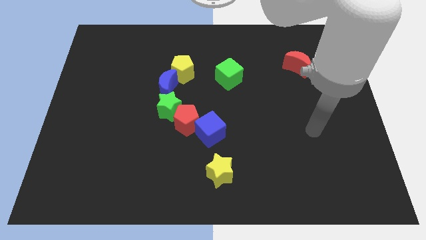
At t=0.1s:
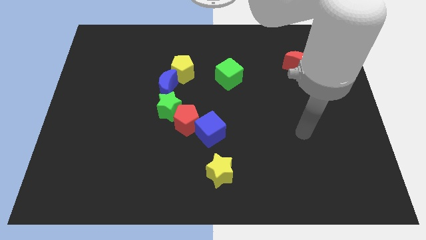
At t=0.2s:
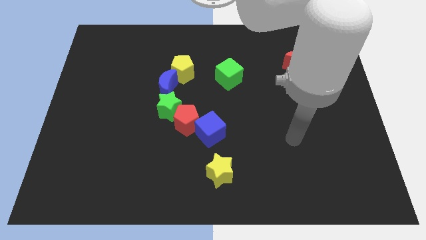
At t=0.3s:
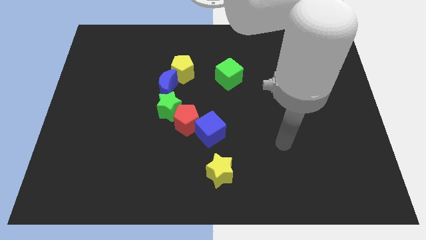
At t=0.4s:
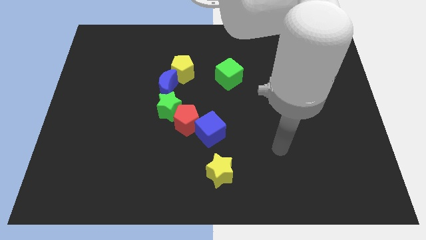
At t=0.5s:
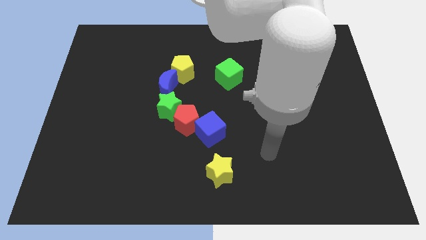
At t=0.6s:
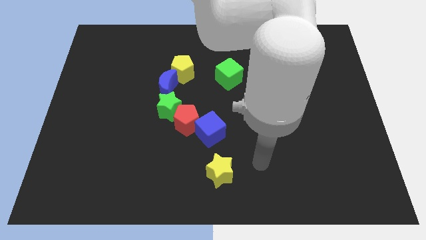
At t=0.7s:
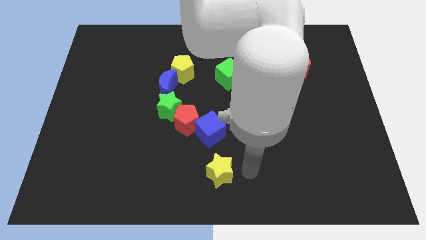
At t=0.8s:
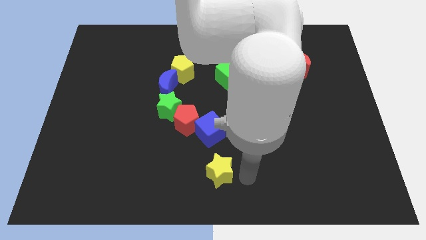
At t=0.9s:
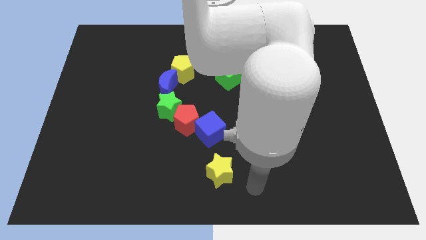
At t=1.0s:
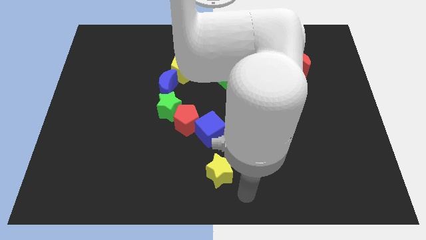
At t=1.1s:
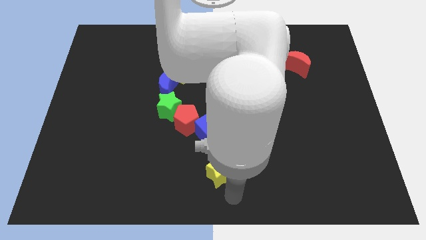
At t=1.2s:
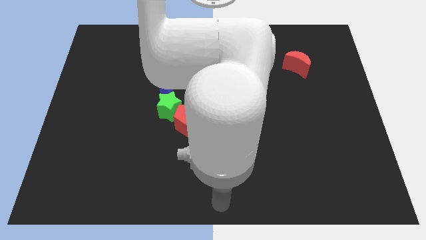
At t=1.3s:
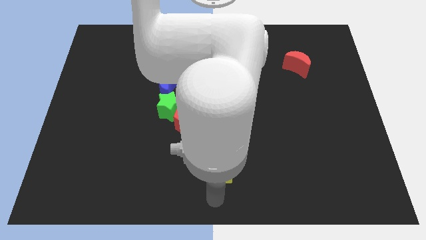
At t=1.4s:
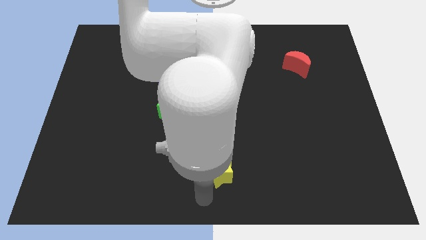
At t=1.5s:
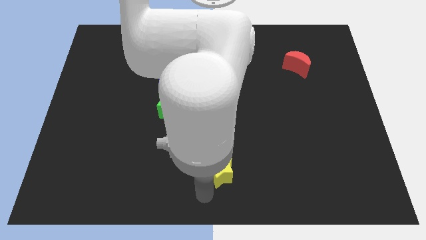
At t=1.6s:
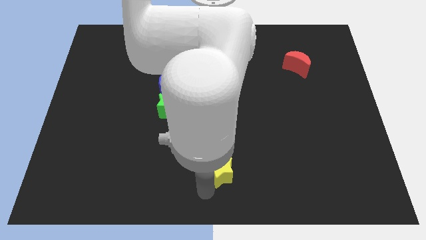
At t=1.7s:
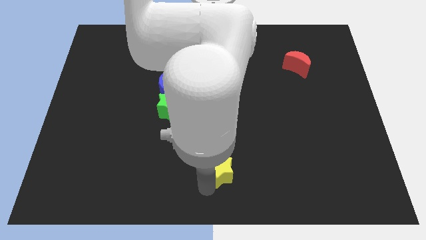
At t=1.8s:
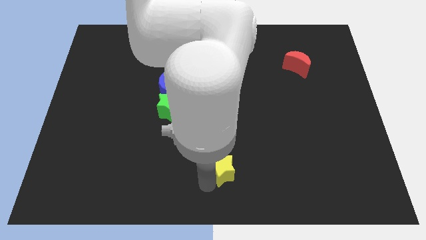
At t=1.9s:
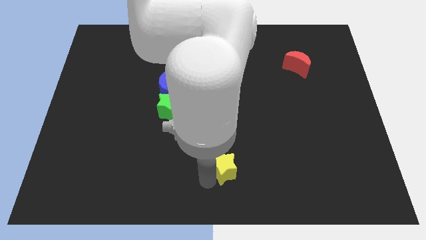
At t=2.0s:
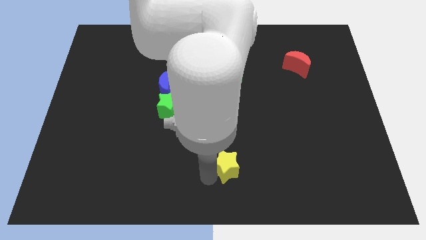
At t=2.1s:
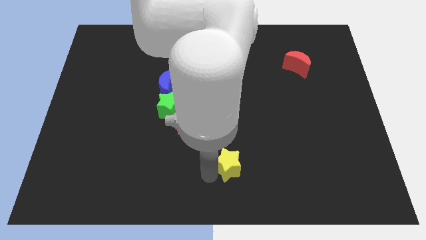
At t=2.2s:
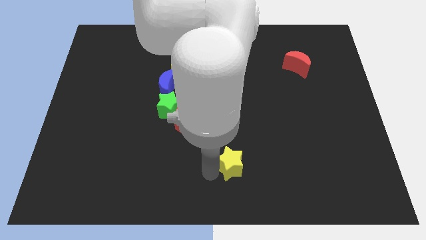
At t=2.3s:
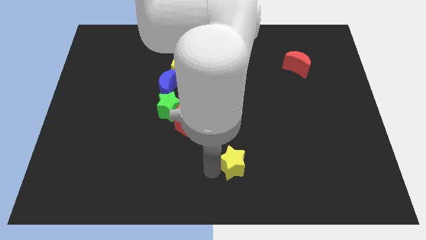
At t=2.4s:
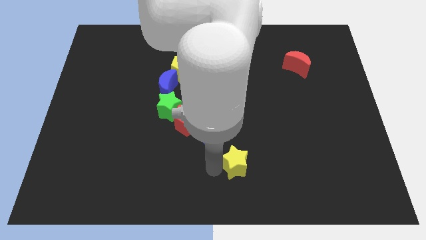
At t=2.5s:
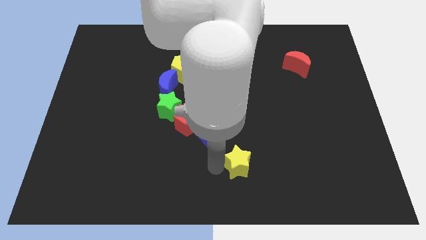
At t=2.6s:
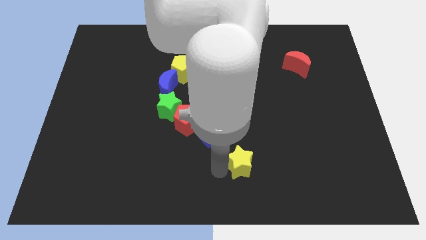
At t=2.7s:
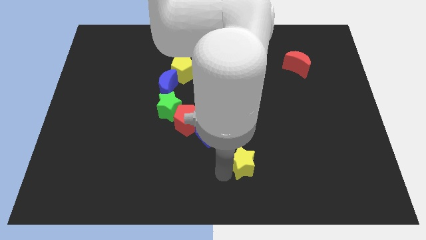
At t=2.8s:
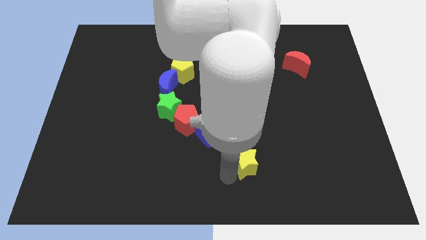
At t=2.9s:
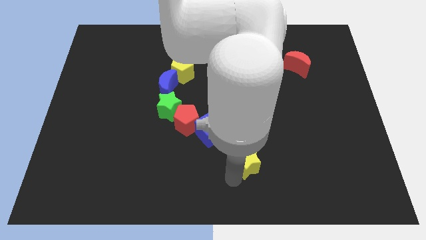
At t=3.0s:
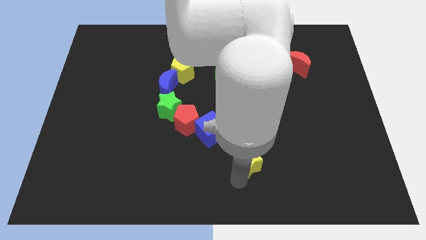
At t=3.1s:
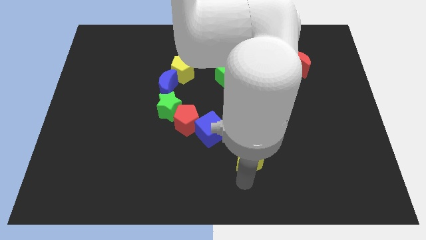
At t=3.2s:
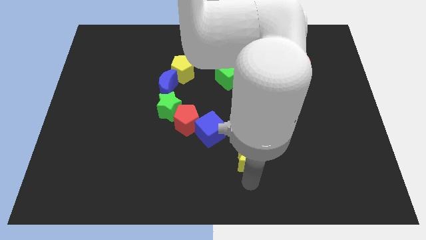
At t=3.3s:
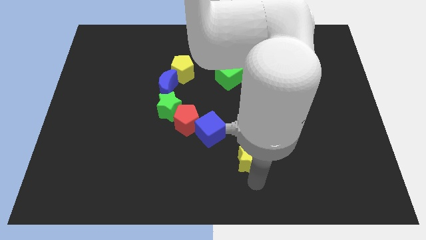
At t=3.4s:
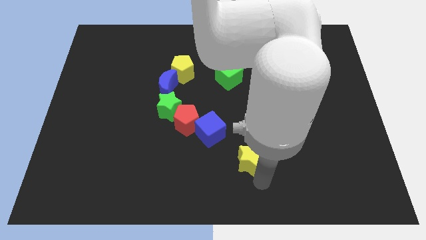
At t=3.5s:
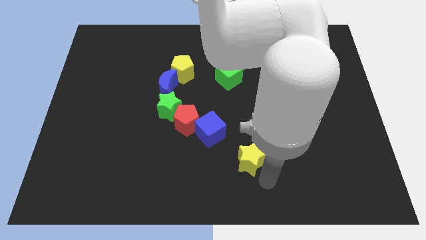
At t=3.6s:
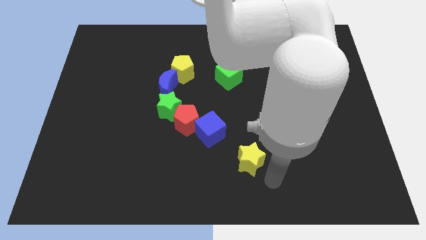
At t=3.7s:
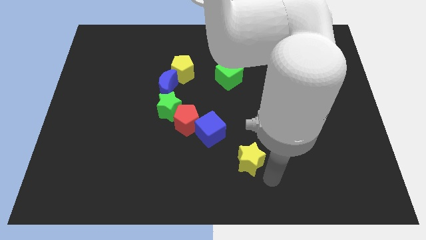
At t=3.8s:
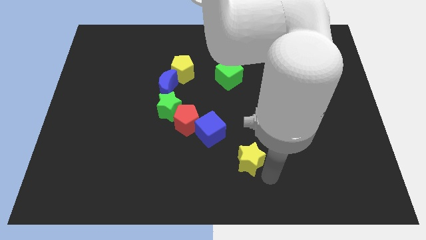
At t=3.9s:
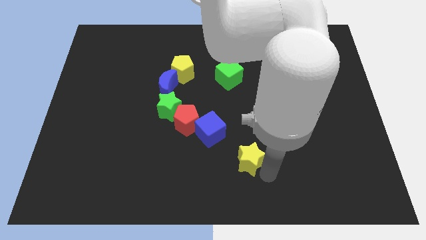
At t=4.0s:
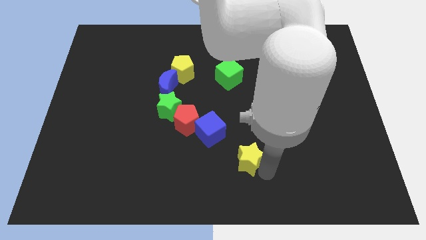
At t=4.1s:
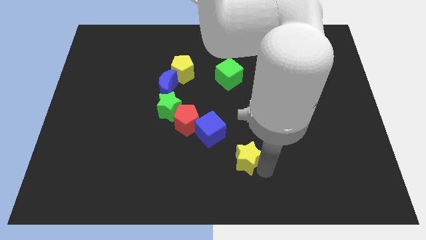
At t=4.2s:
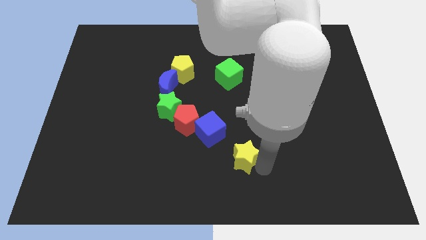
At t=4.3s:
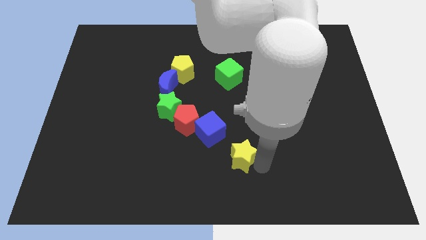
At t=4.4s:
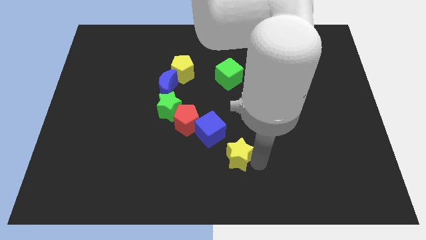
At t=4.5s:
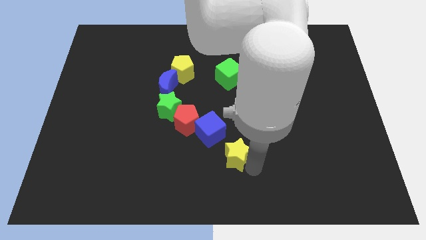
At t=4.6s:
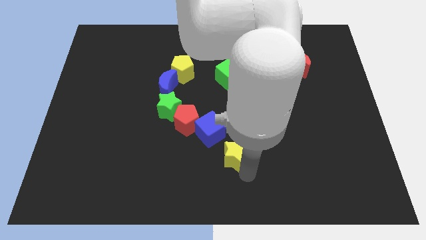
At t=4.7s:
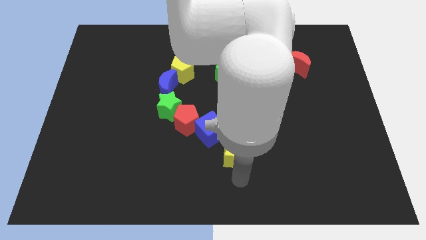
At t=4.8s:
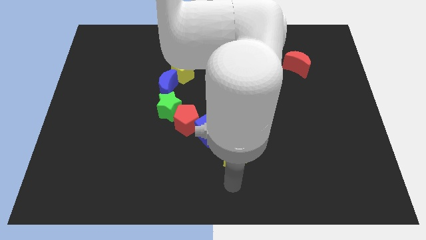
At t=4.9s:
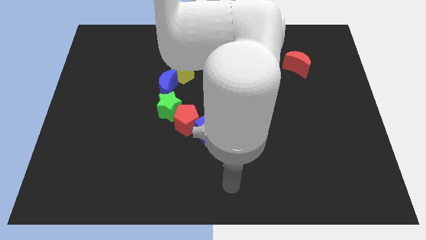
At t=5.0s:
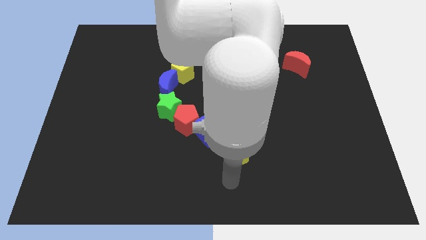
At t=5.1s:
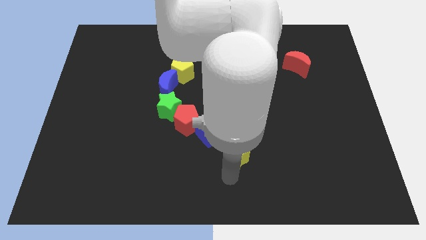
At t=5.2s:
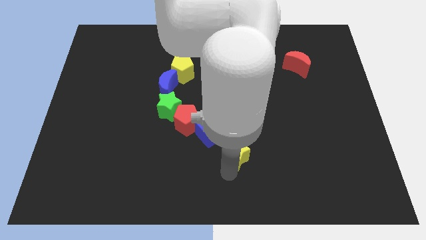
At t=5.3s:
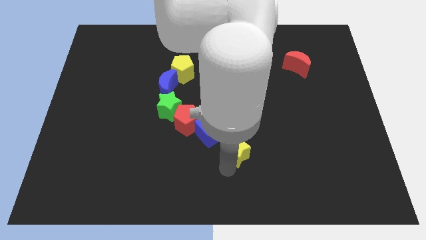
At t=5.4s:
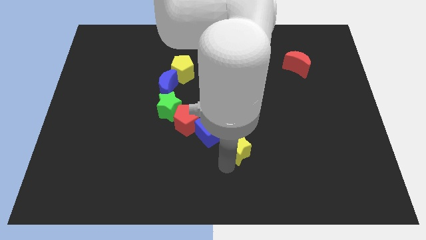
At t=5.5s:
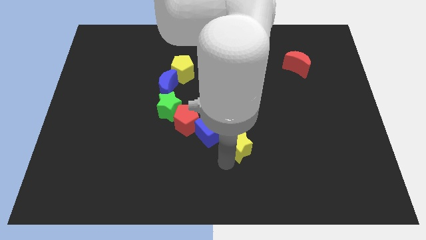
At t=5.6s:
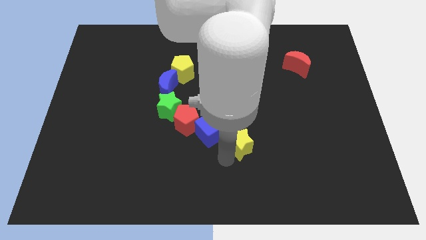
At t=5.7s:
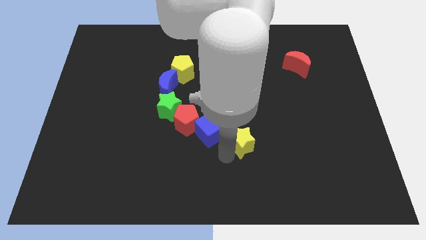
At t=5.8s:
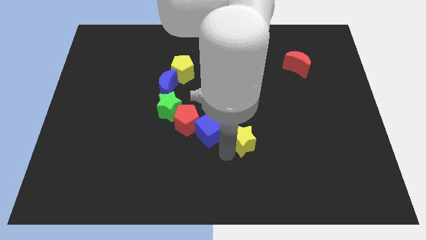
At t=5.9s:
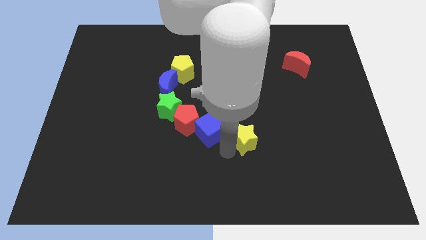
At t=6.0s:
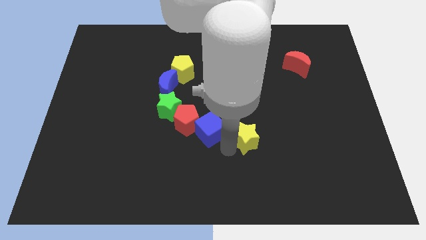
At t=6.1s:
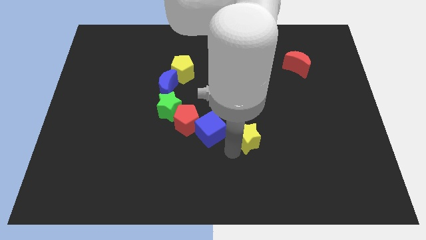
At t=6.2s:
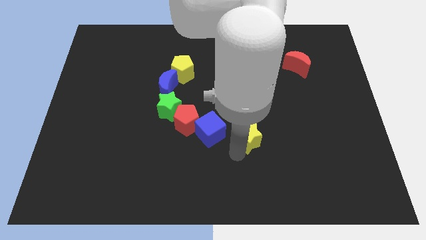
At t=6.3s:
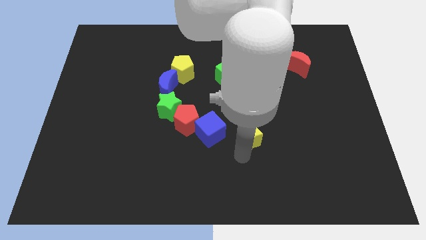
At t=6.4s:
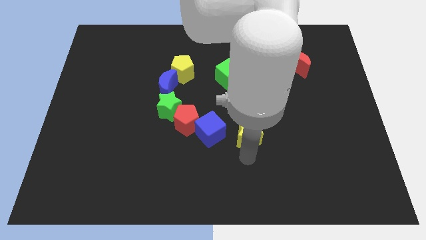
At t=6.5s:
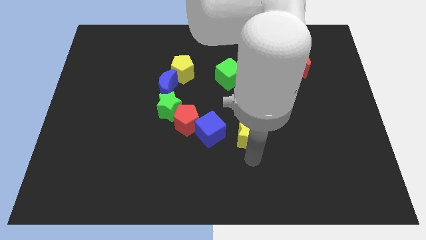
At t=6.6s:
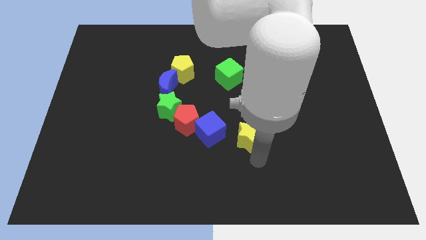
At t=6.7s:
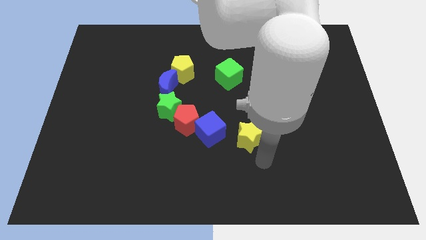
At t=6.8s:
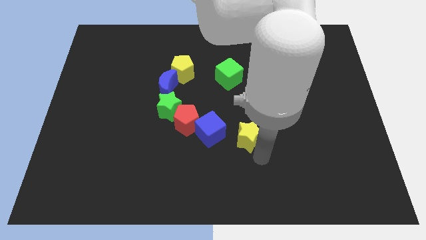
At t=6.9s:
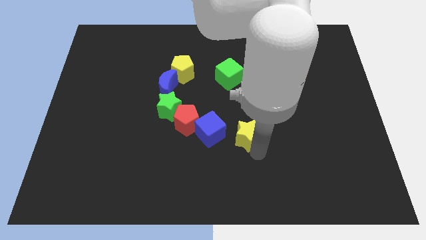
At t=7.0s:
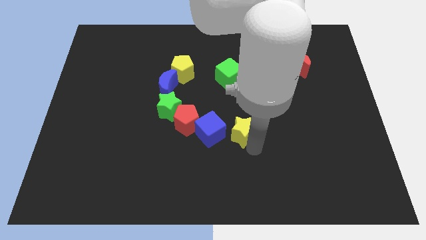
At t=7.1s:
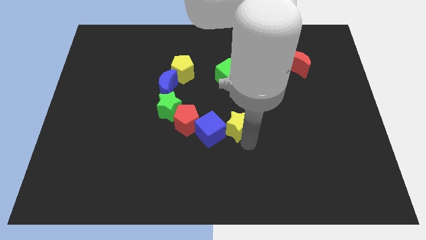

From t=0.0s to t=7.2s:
push the yellow star to the top right of the blue cube

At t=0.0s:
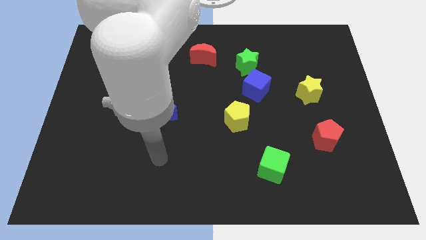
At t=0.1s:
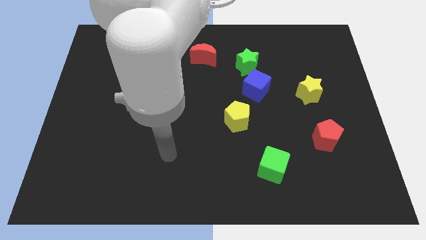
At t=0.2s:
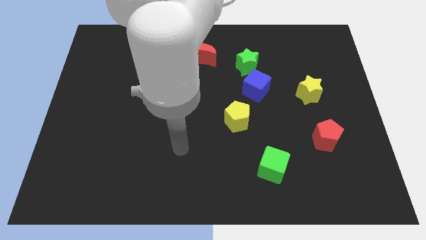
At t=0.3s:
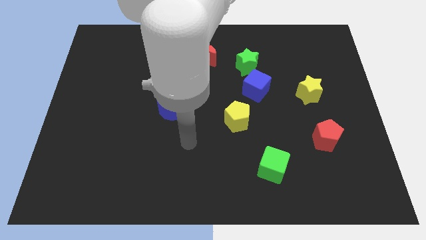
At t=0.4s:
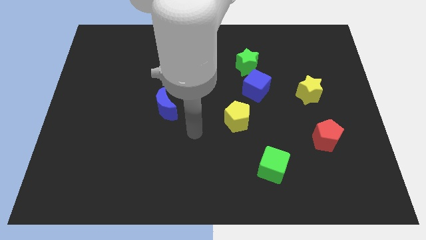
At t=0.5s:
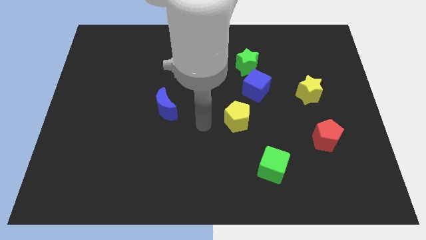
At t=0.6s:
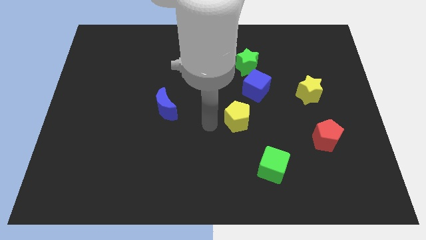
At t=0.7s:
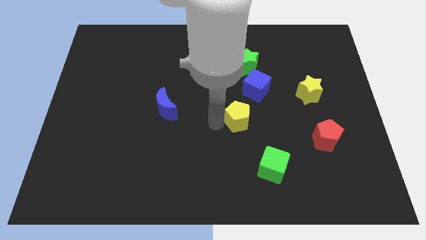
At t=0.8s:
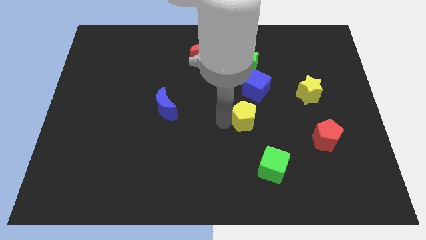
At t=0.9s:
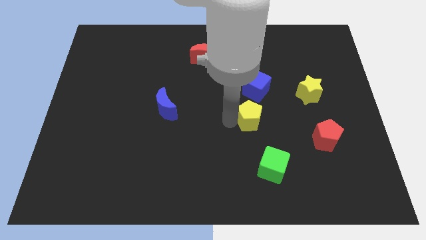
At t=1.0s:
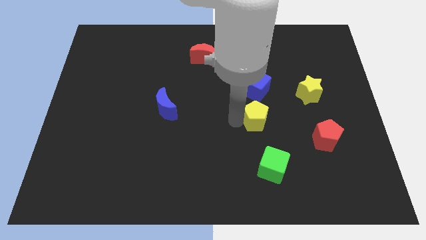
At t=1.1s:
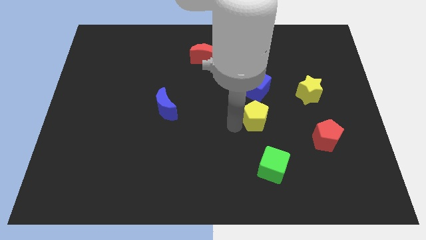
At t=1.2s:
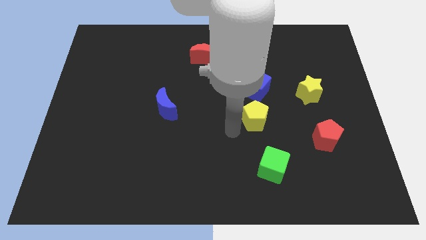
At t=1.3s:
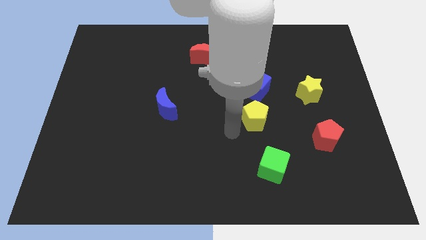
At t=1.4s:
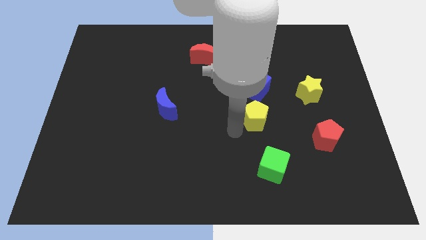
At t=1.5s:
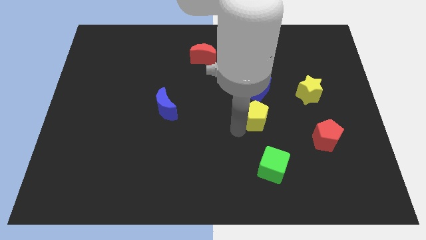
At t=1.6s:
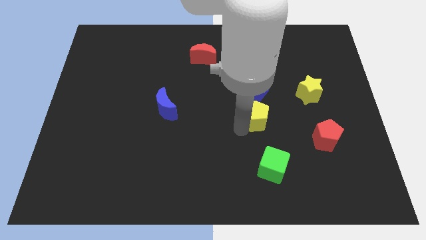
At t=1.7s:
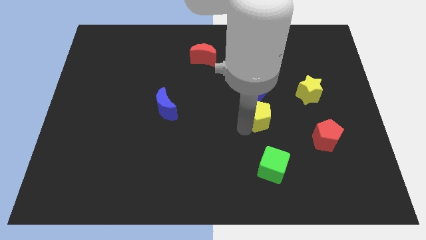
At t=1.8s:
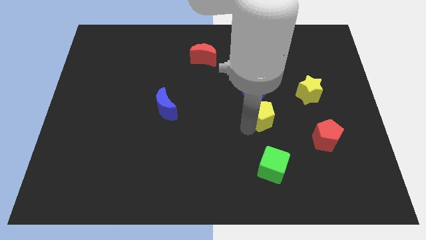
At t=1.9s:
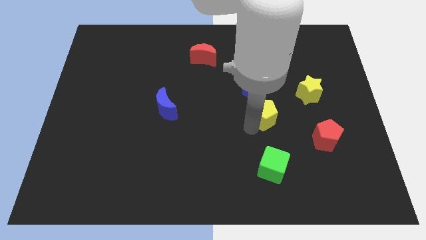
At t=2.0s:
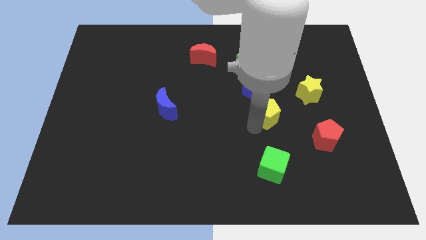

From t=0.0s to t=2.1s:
put the yellow pentagon diagonally down and to the right of the blue cube
